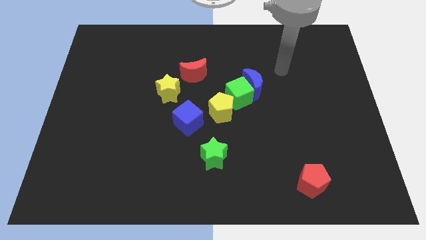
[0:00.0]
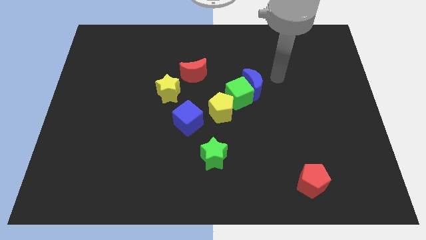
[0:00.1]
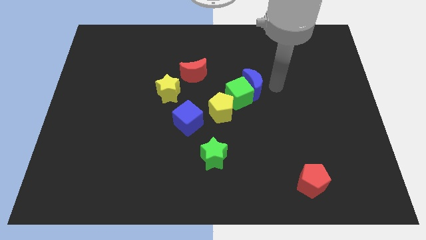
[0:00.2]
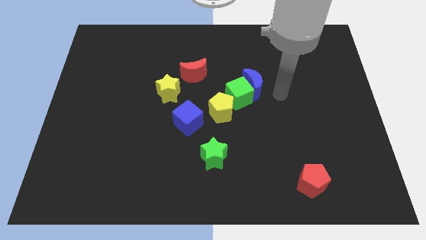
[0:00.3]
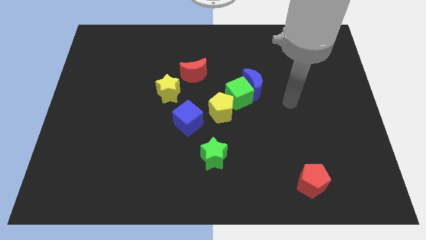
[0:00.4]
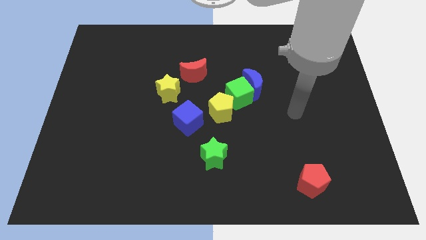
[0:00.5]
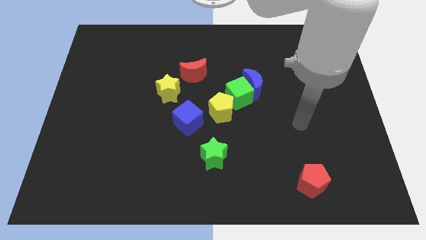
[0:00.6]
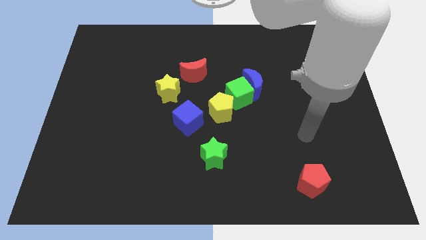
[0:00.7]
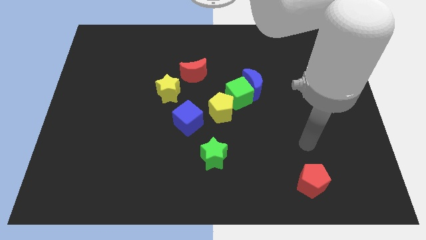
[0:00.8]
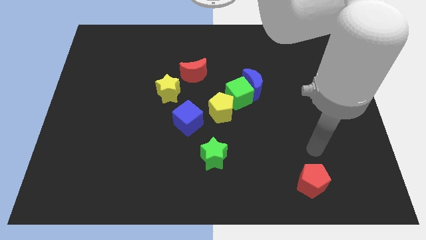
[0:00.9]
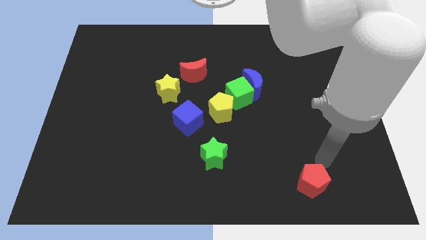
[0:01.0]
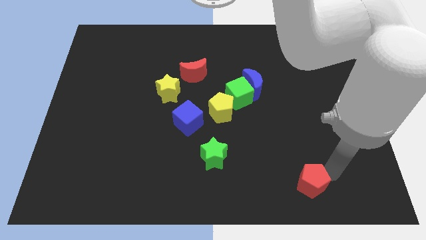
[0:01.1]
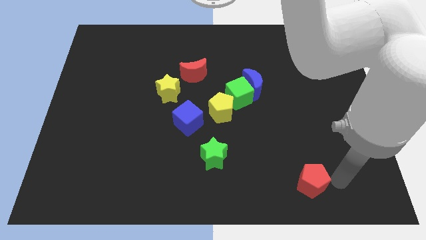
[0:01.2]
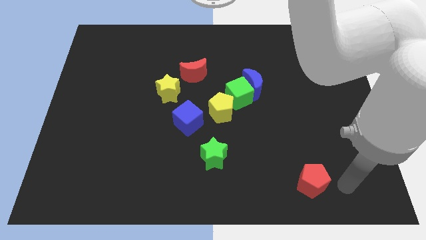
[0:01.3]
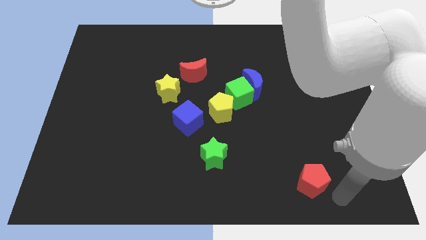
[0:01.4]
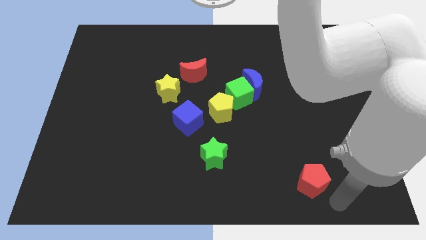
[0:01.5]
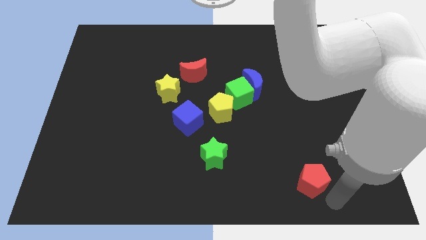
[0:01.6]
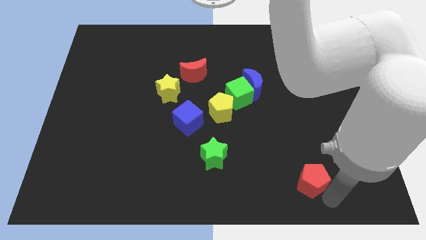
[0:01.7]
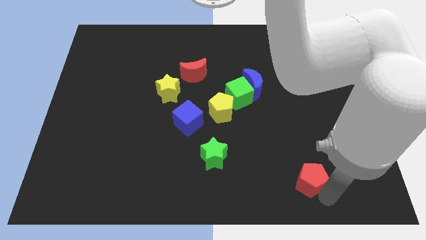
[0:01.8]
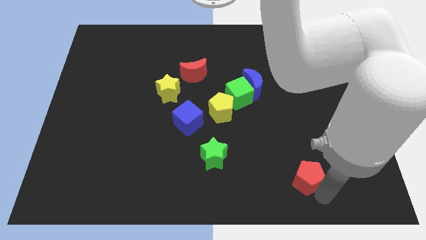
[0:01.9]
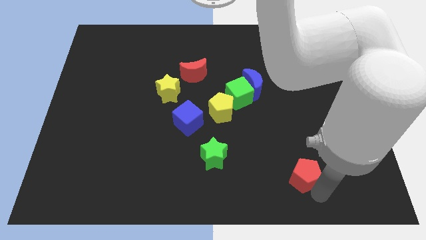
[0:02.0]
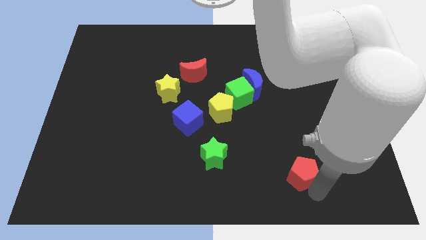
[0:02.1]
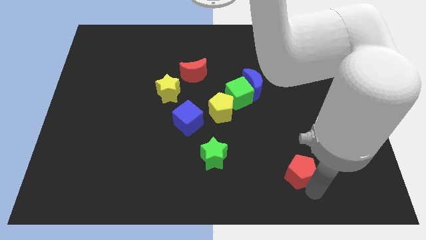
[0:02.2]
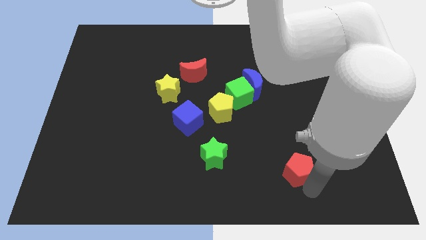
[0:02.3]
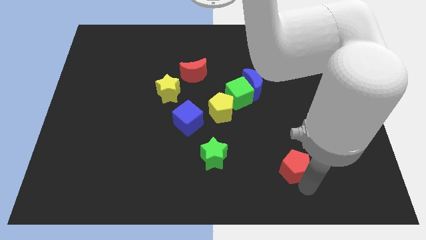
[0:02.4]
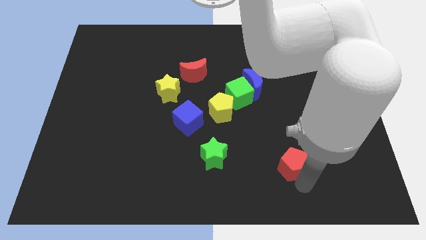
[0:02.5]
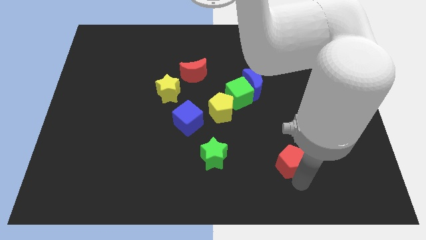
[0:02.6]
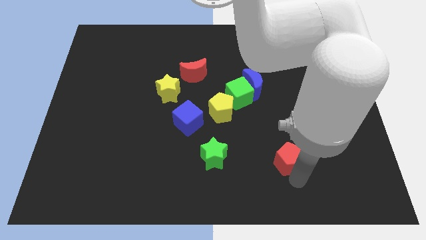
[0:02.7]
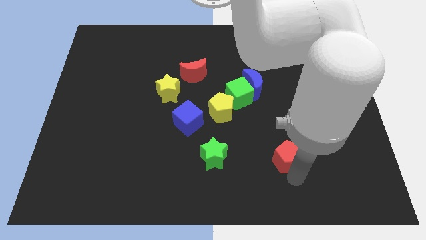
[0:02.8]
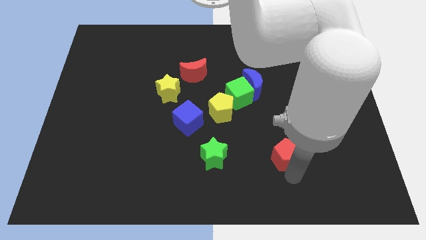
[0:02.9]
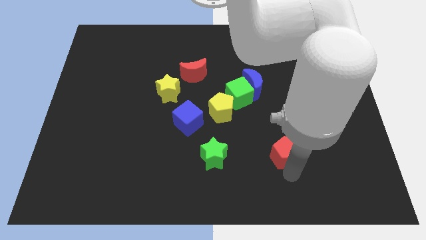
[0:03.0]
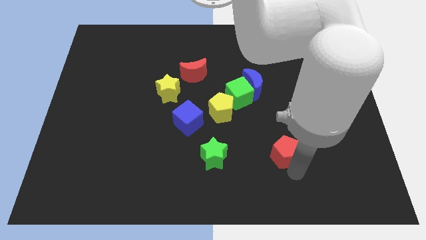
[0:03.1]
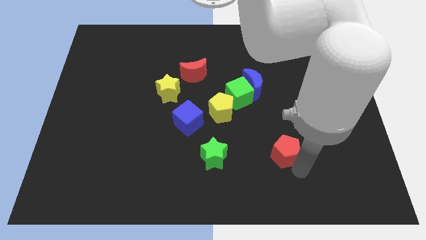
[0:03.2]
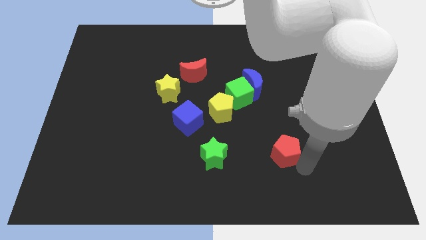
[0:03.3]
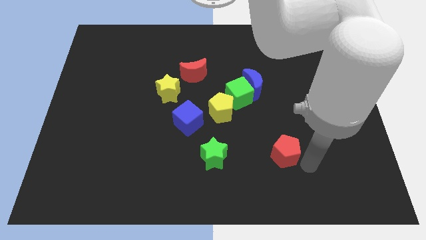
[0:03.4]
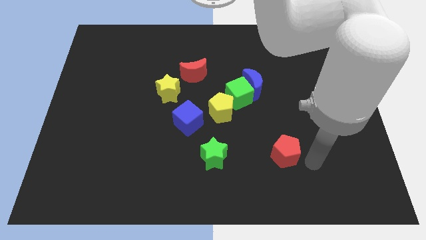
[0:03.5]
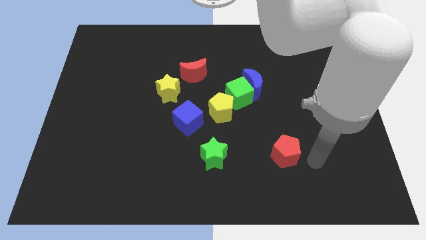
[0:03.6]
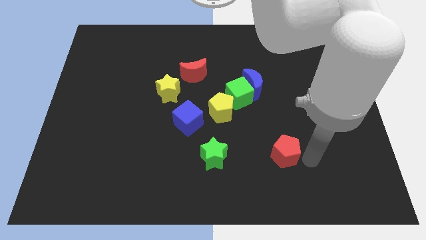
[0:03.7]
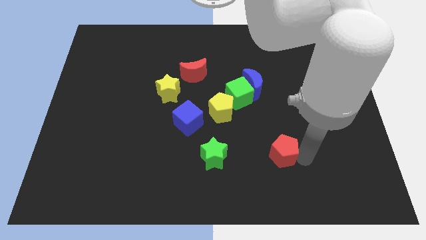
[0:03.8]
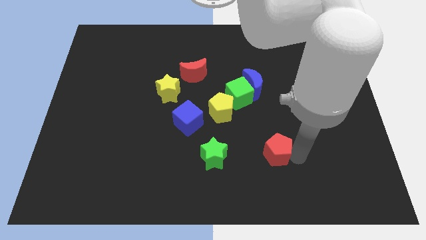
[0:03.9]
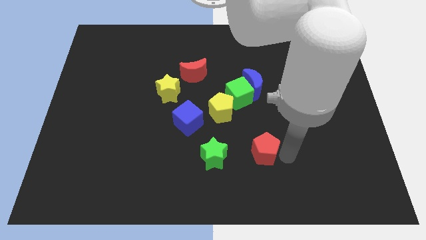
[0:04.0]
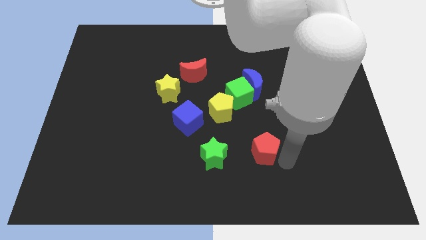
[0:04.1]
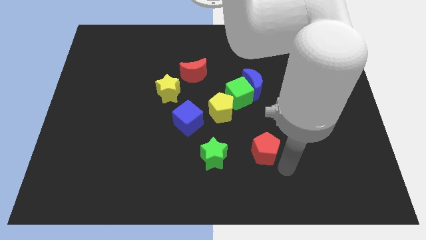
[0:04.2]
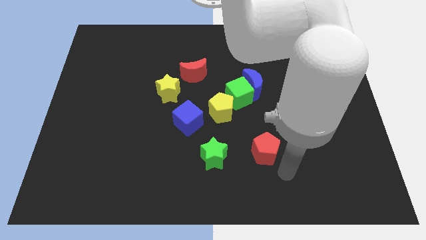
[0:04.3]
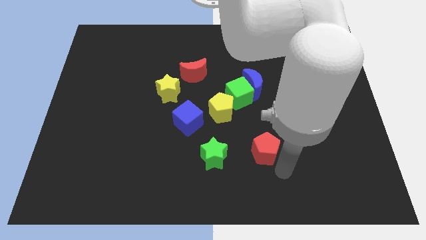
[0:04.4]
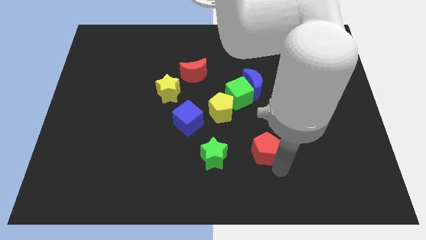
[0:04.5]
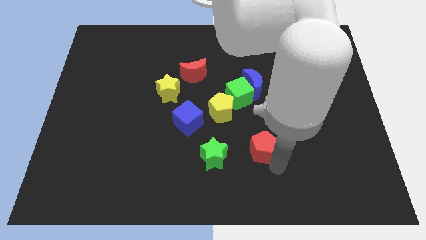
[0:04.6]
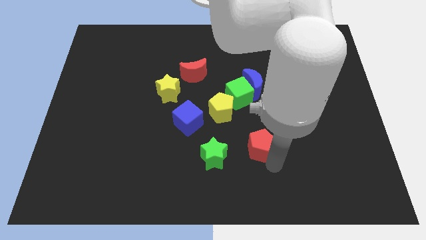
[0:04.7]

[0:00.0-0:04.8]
slide the red pentagon to the bottom right side of the yellow pentagon

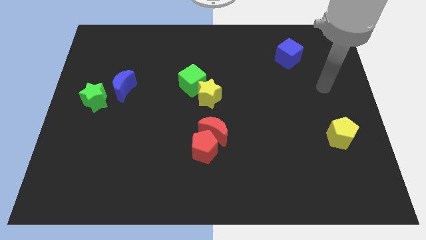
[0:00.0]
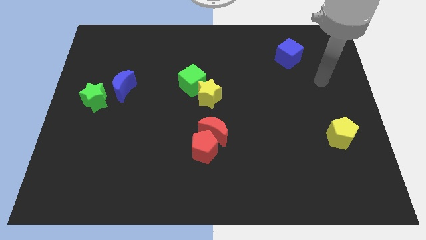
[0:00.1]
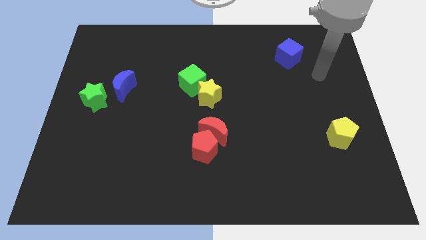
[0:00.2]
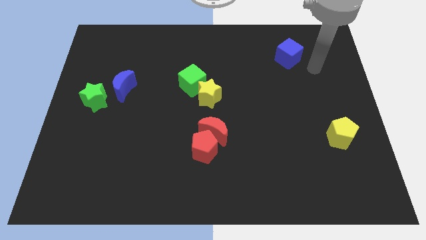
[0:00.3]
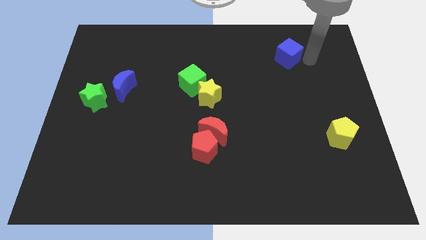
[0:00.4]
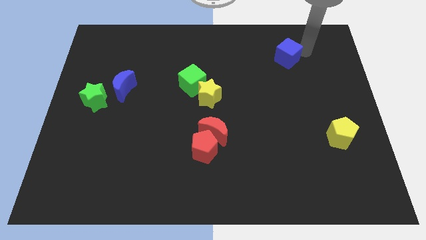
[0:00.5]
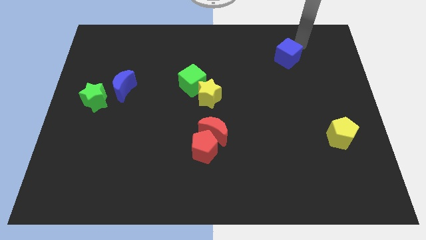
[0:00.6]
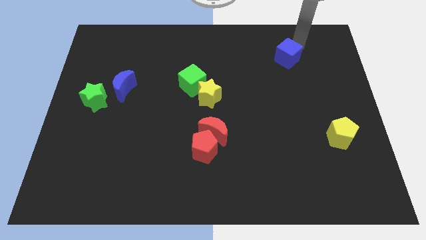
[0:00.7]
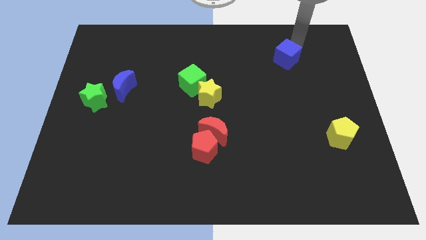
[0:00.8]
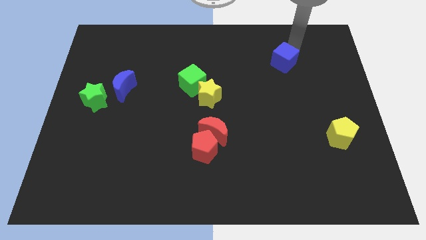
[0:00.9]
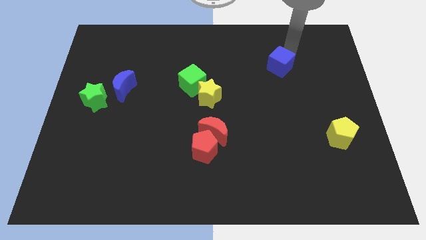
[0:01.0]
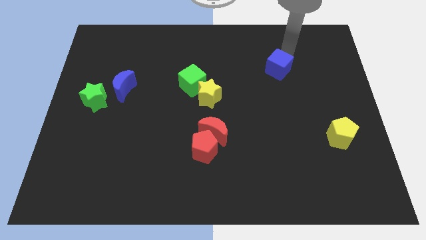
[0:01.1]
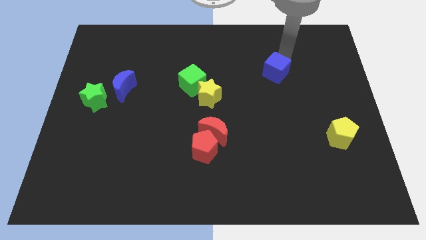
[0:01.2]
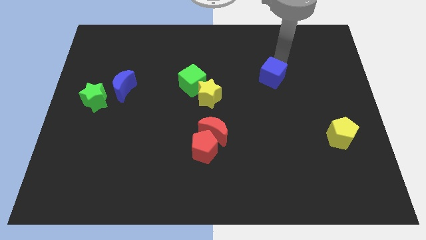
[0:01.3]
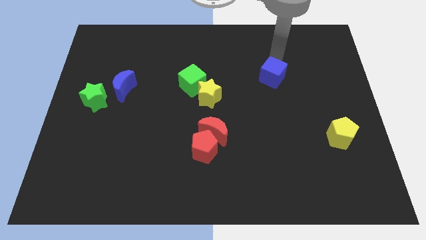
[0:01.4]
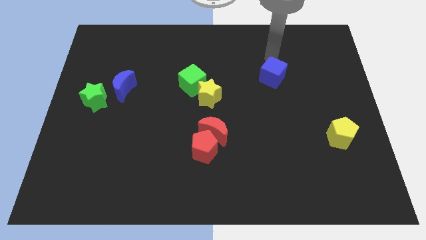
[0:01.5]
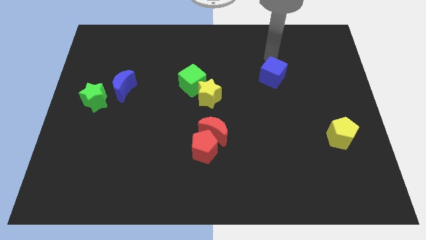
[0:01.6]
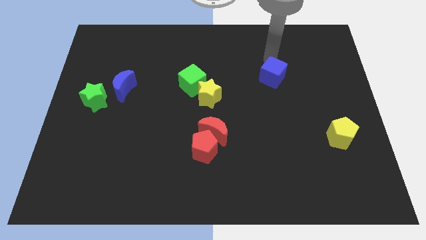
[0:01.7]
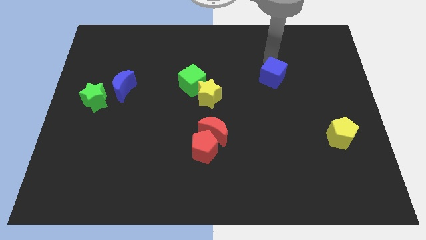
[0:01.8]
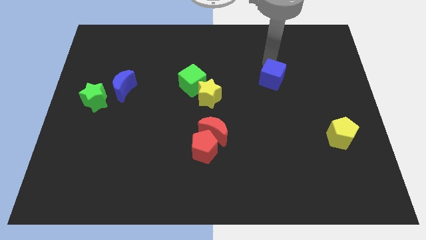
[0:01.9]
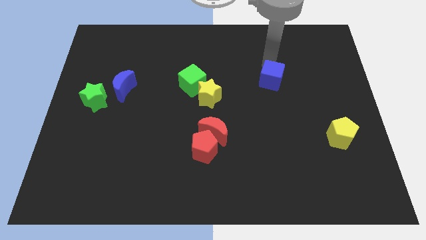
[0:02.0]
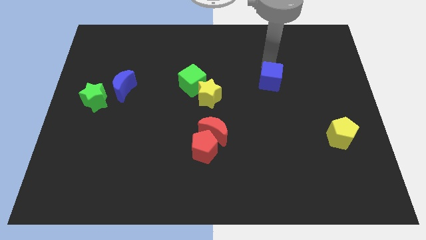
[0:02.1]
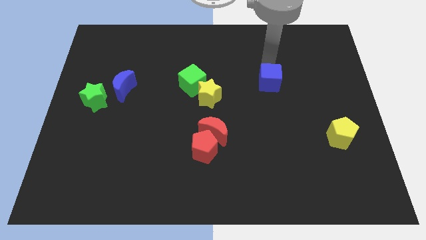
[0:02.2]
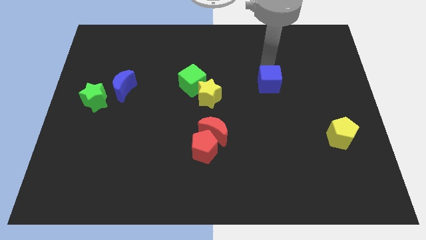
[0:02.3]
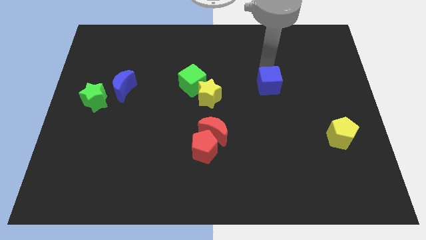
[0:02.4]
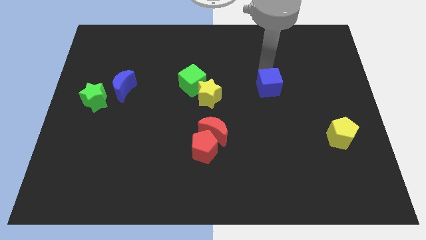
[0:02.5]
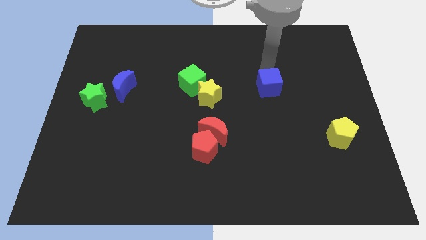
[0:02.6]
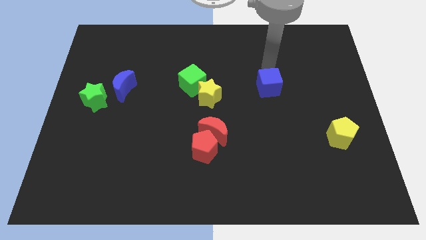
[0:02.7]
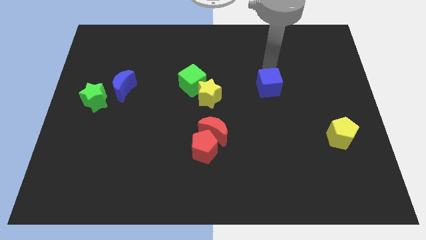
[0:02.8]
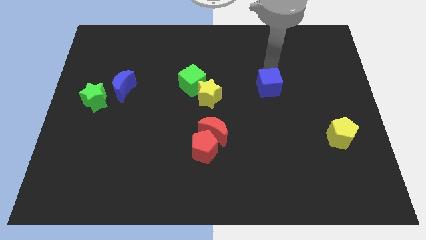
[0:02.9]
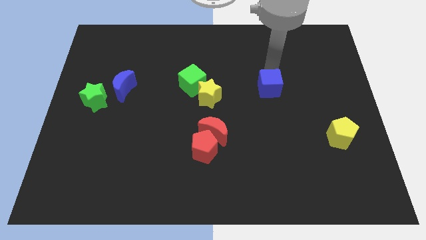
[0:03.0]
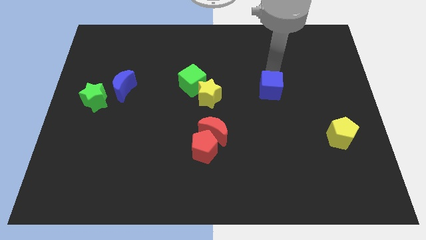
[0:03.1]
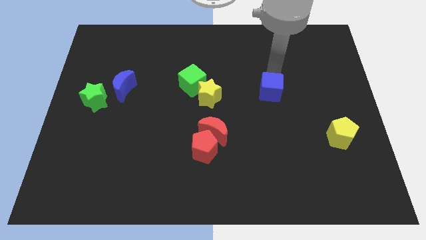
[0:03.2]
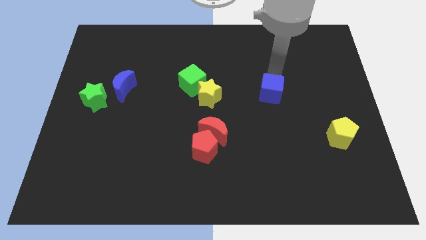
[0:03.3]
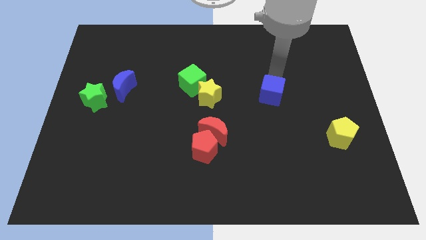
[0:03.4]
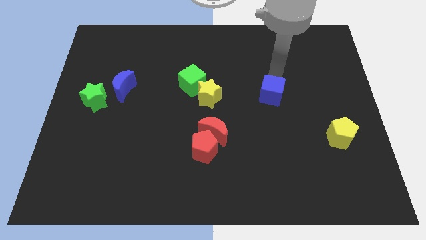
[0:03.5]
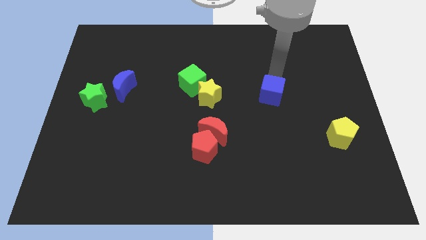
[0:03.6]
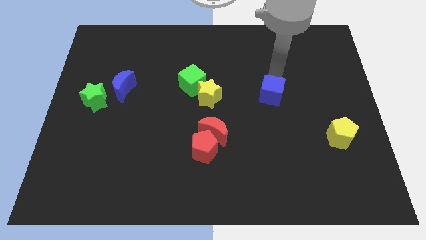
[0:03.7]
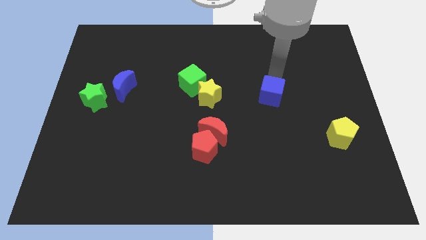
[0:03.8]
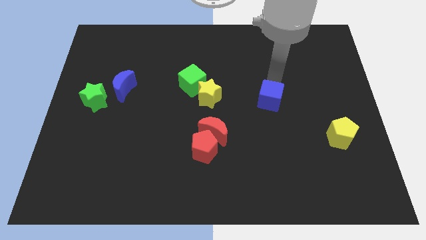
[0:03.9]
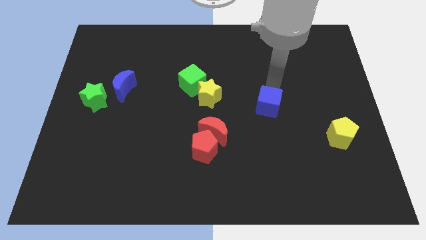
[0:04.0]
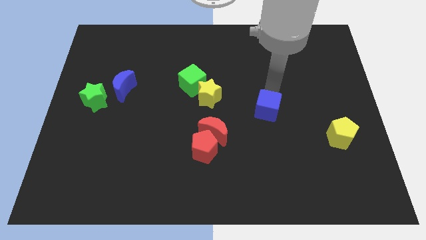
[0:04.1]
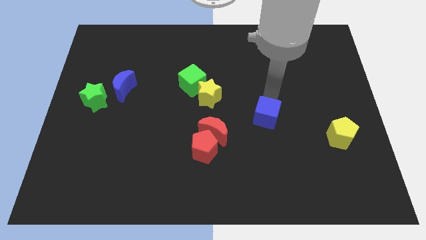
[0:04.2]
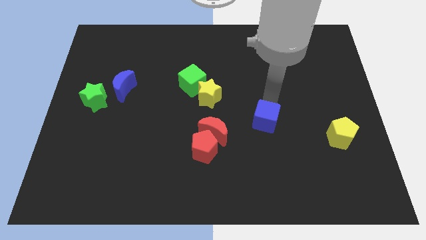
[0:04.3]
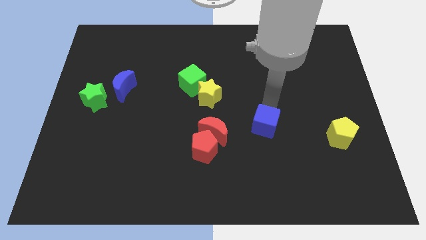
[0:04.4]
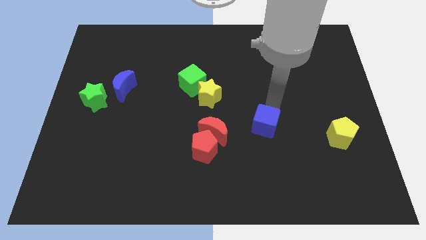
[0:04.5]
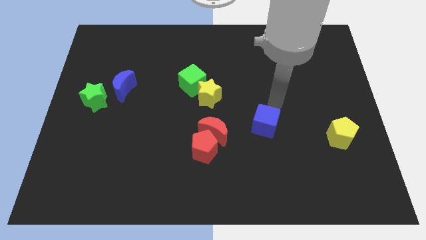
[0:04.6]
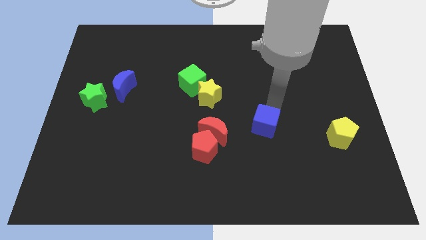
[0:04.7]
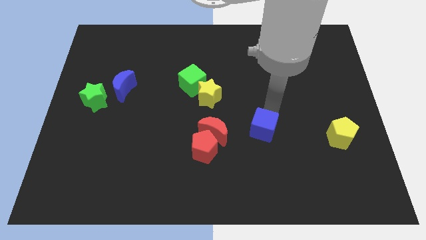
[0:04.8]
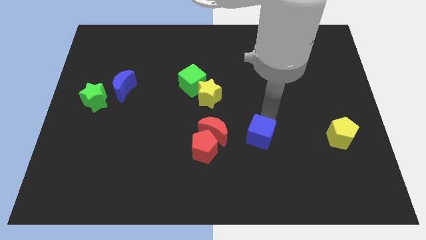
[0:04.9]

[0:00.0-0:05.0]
move the blue cube just right of the red pentagon
